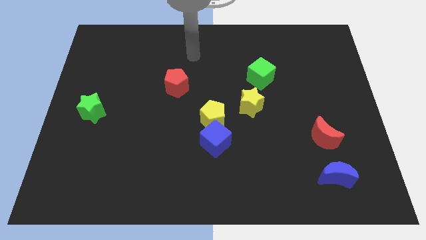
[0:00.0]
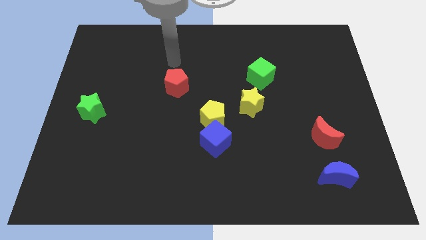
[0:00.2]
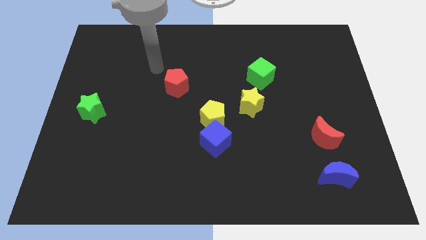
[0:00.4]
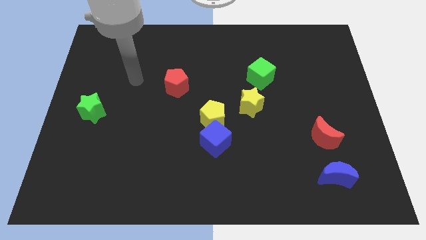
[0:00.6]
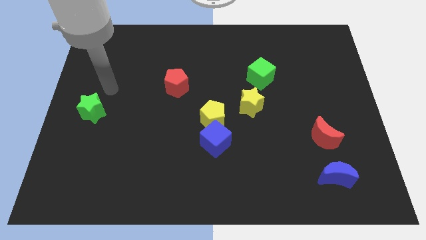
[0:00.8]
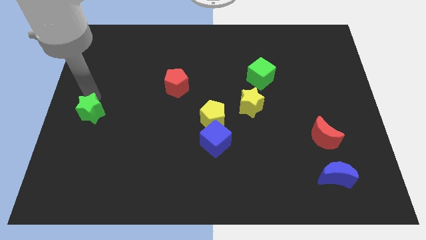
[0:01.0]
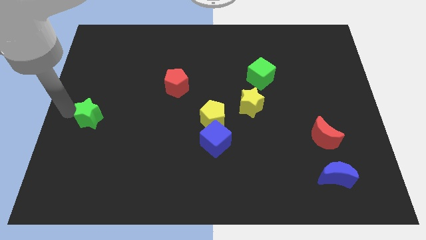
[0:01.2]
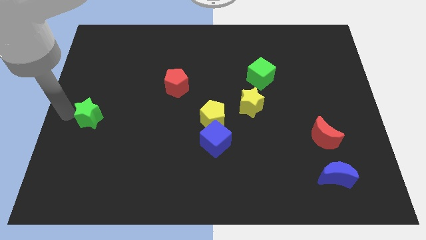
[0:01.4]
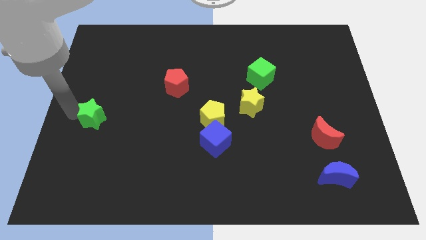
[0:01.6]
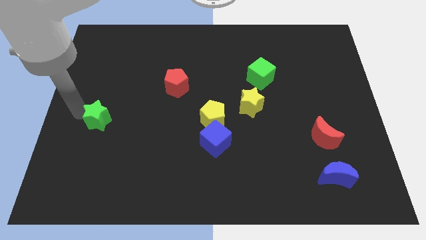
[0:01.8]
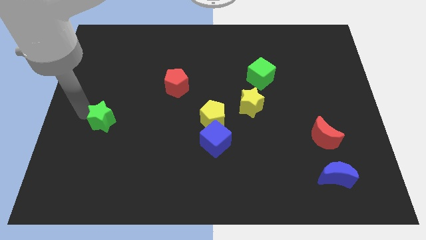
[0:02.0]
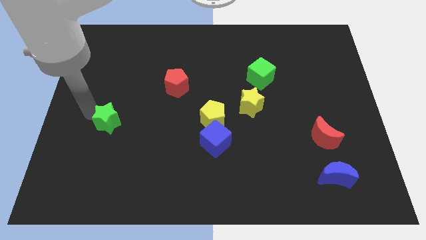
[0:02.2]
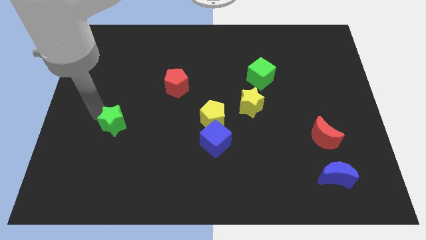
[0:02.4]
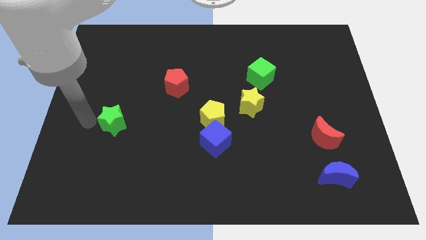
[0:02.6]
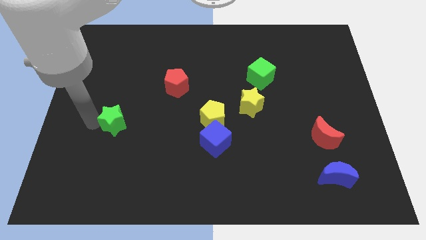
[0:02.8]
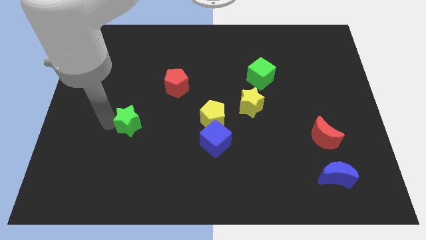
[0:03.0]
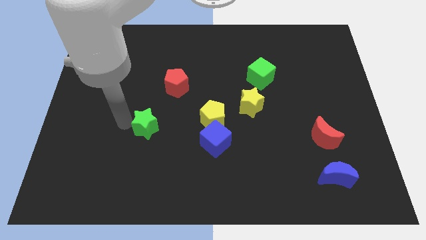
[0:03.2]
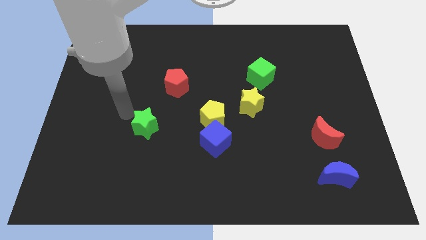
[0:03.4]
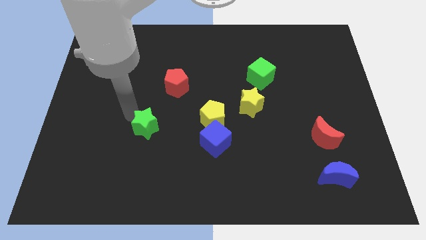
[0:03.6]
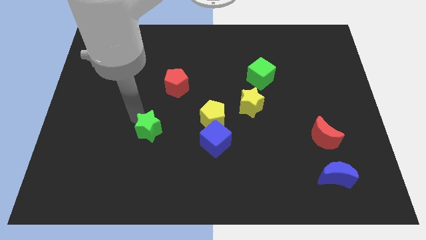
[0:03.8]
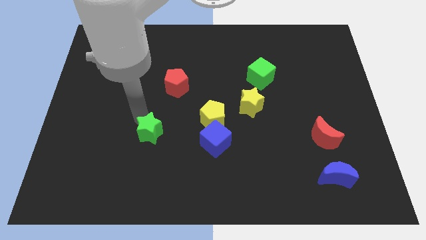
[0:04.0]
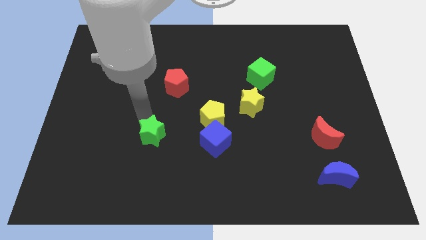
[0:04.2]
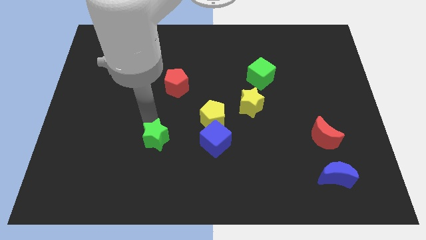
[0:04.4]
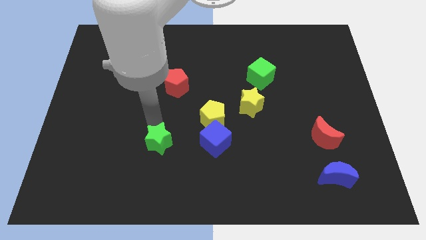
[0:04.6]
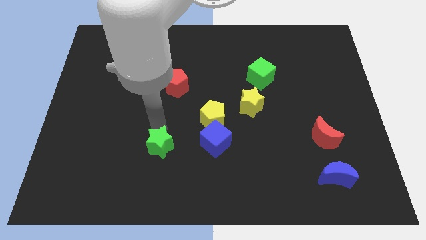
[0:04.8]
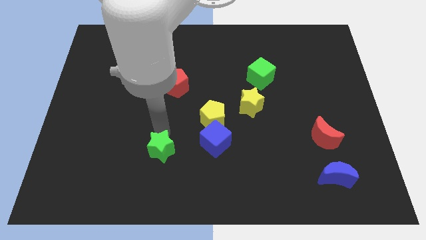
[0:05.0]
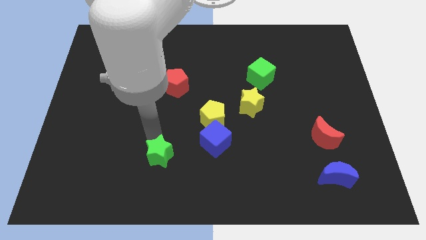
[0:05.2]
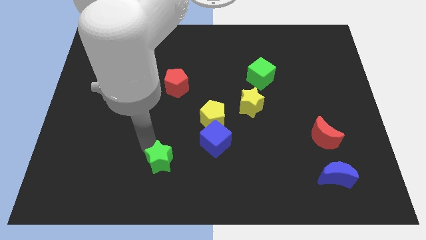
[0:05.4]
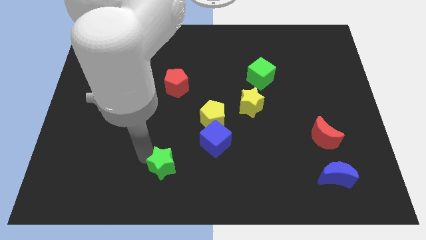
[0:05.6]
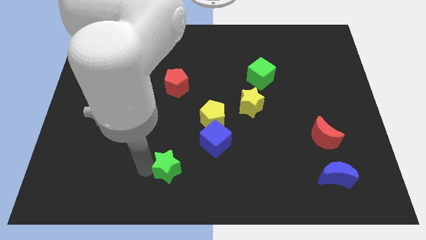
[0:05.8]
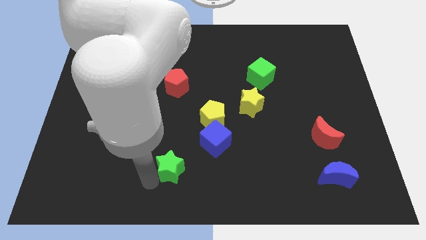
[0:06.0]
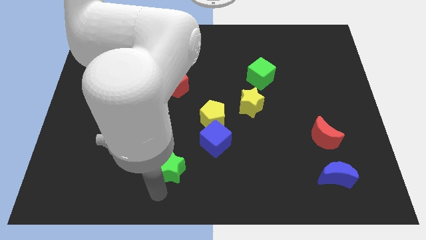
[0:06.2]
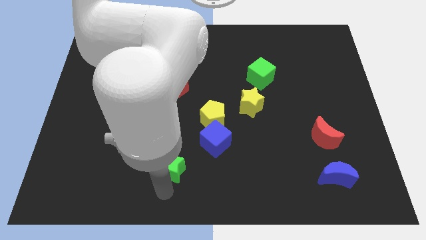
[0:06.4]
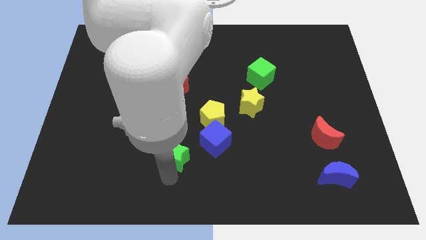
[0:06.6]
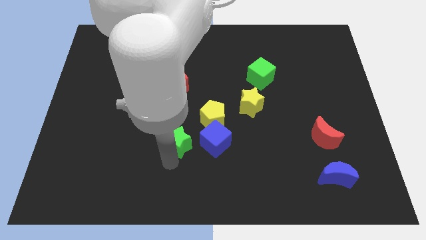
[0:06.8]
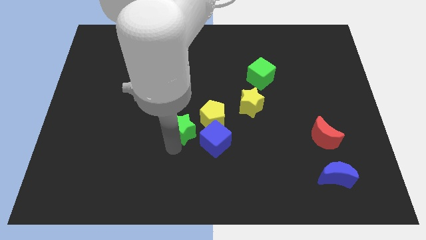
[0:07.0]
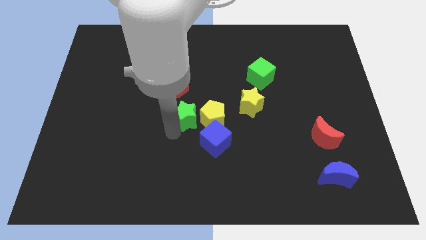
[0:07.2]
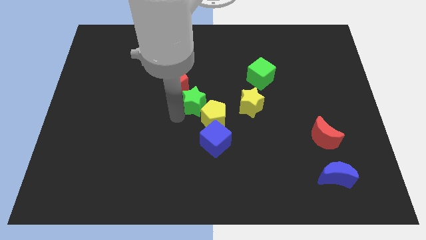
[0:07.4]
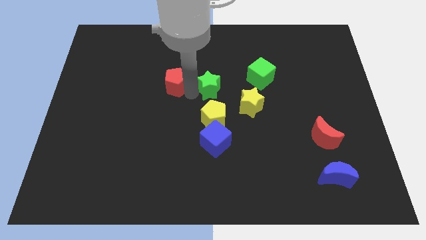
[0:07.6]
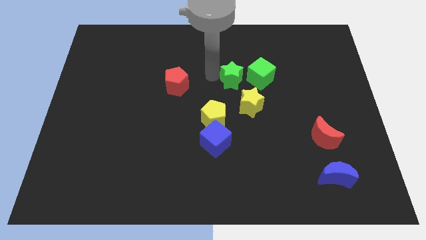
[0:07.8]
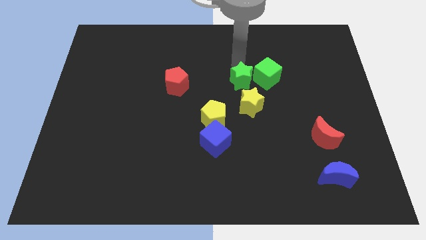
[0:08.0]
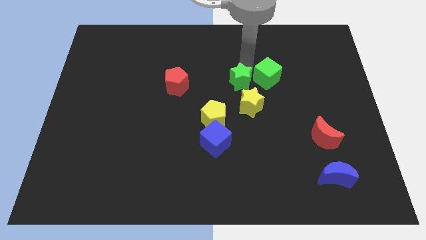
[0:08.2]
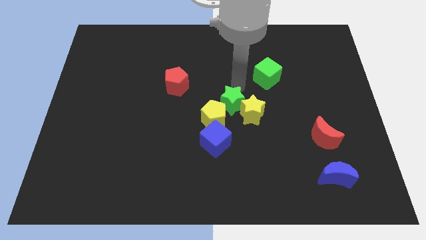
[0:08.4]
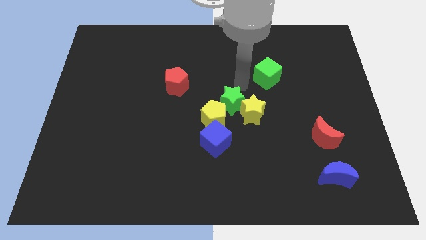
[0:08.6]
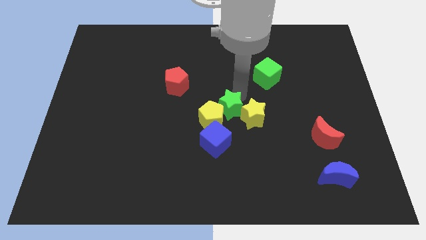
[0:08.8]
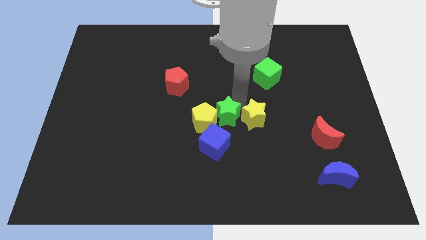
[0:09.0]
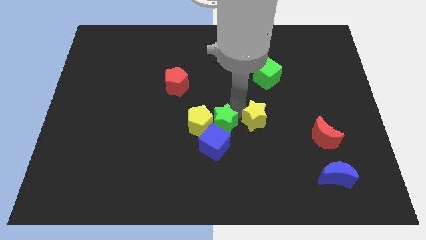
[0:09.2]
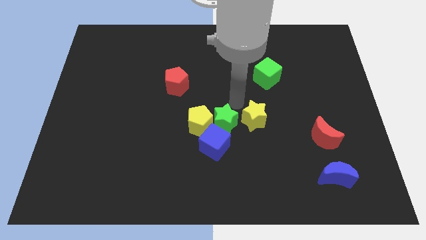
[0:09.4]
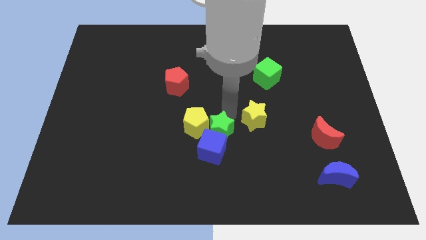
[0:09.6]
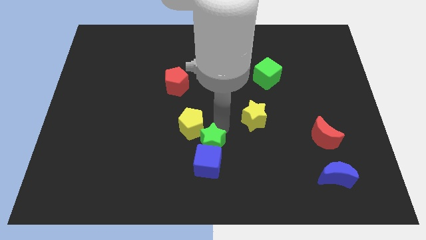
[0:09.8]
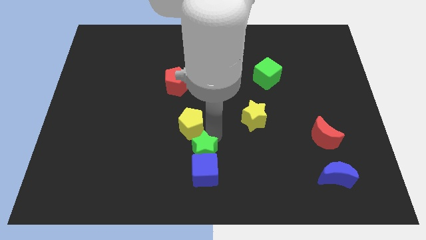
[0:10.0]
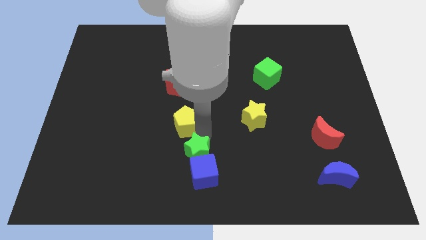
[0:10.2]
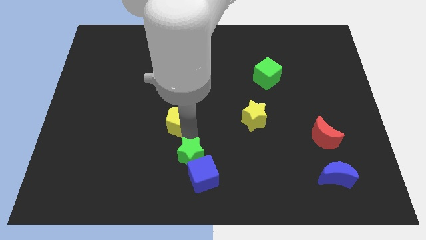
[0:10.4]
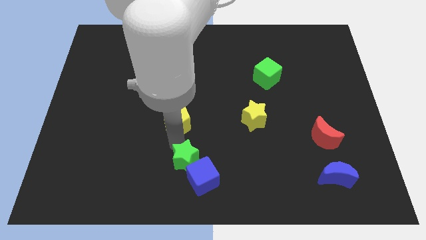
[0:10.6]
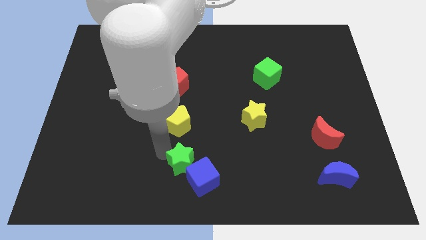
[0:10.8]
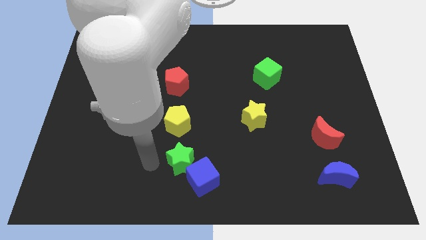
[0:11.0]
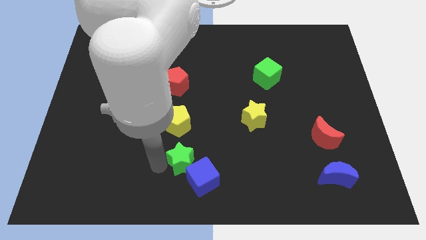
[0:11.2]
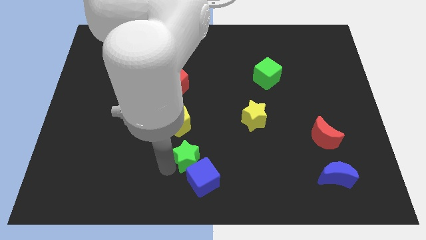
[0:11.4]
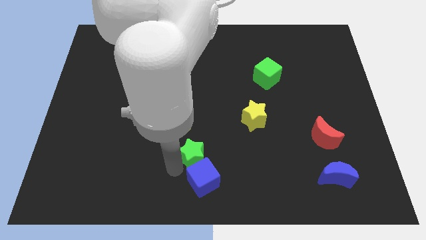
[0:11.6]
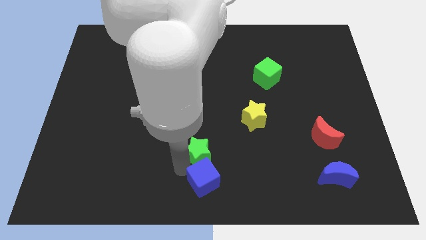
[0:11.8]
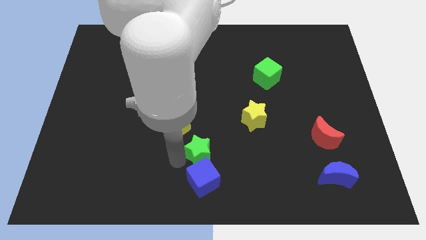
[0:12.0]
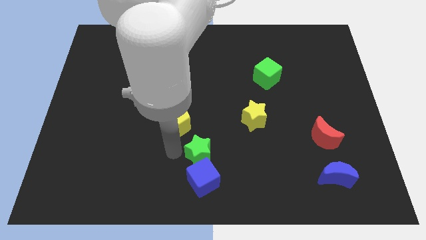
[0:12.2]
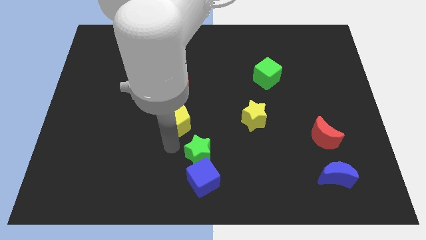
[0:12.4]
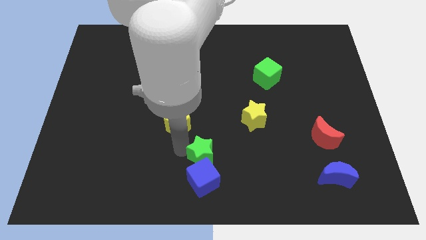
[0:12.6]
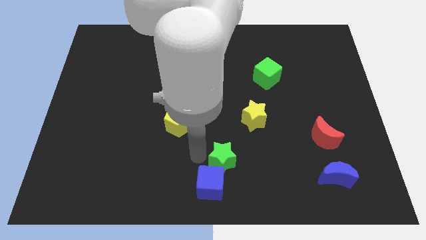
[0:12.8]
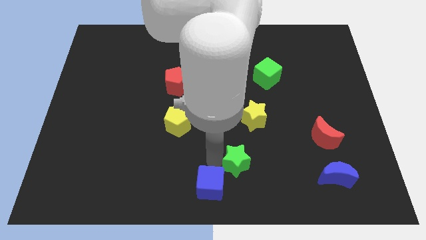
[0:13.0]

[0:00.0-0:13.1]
put the green star to the bottom side of the yellow star
